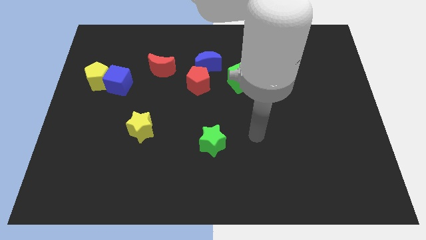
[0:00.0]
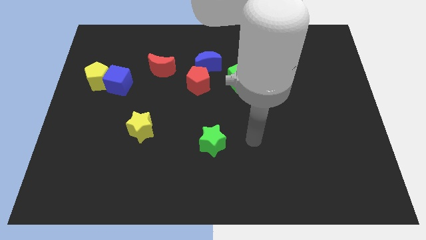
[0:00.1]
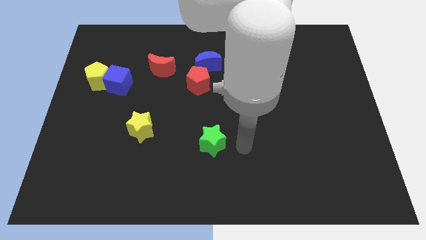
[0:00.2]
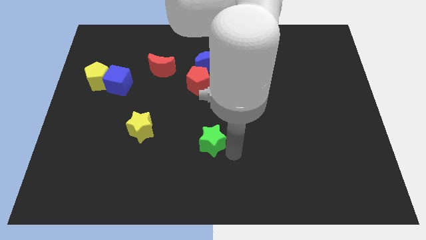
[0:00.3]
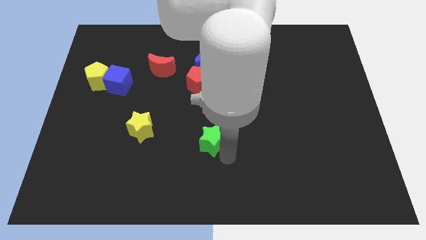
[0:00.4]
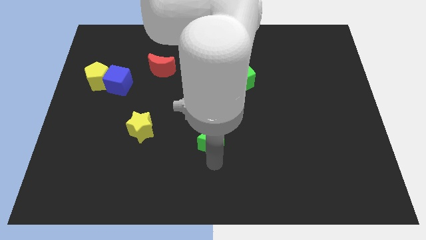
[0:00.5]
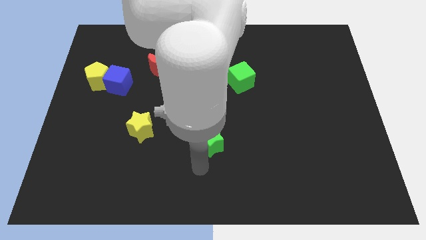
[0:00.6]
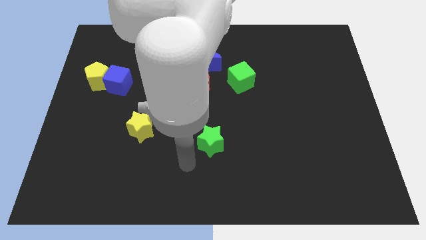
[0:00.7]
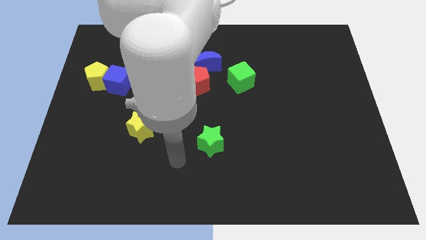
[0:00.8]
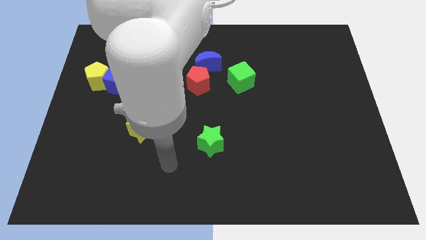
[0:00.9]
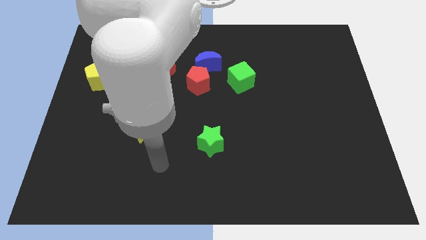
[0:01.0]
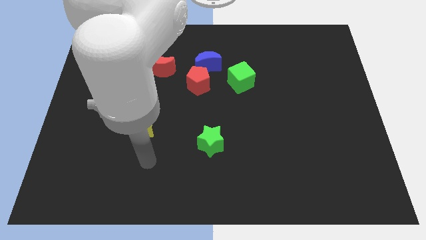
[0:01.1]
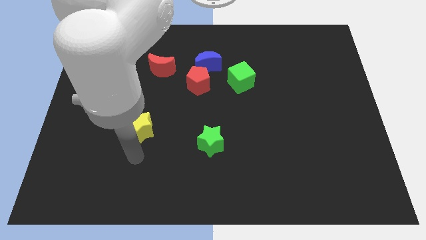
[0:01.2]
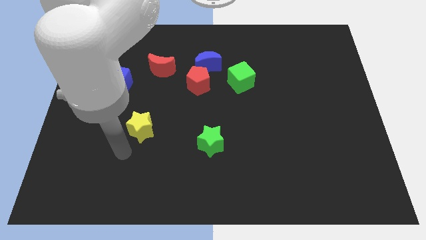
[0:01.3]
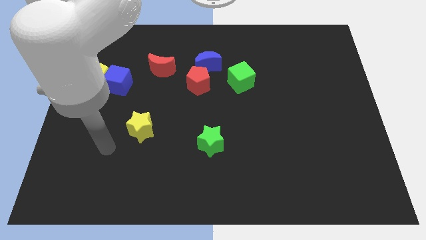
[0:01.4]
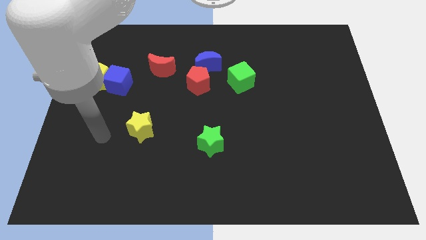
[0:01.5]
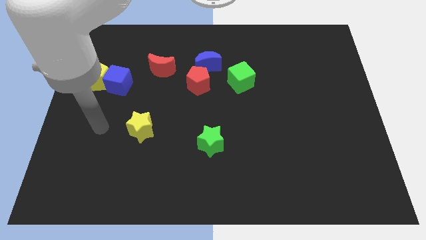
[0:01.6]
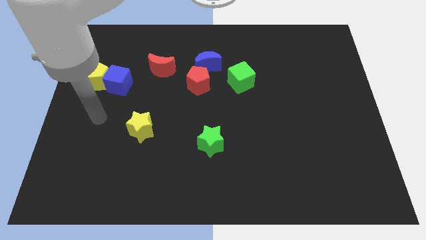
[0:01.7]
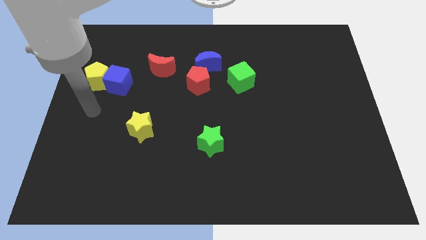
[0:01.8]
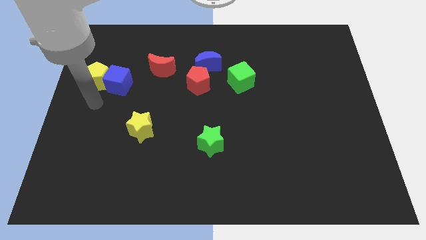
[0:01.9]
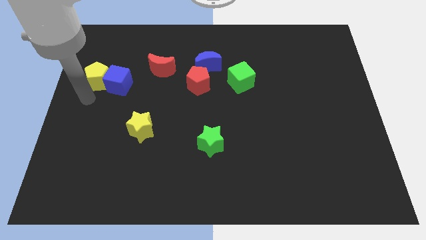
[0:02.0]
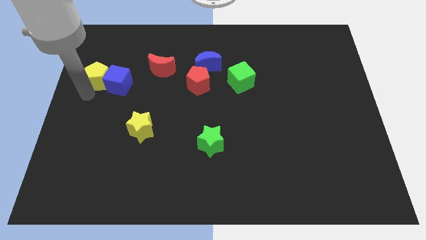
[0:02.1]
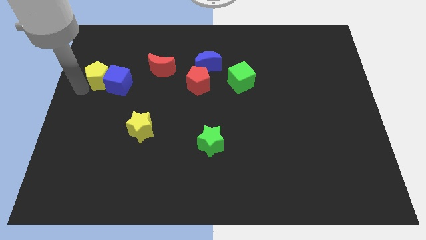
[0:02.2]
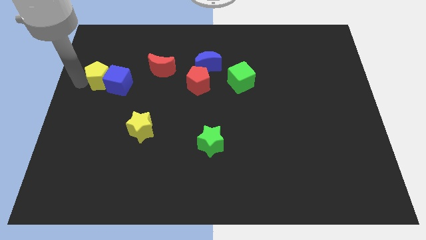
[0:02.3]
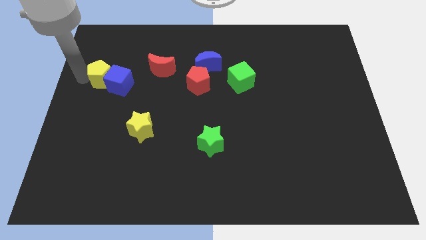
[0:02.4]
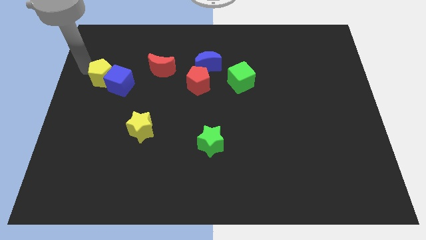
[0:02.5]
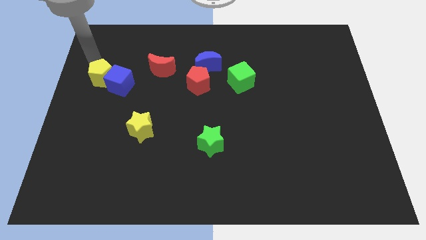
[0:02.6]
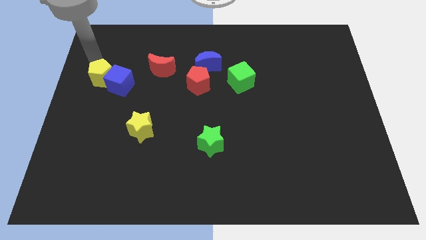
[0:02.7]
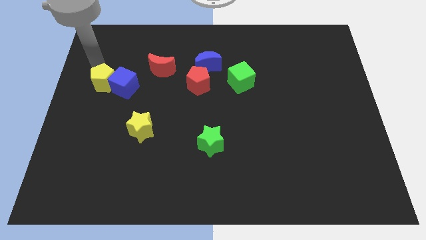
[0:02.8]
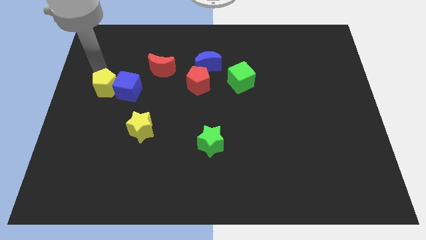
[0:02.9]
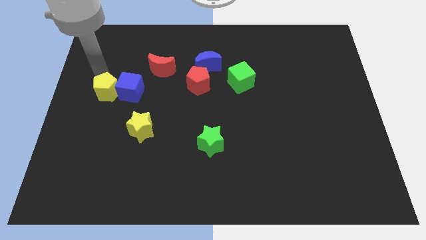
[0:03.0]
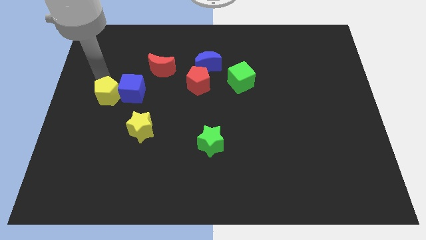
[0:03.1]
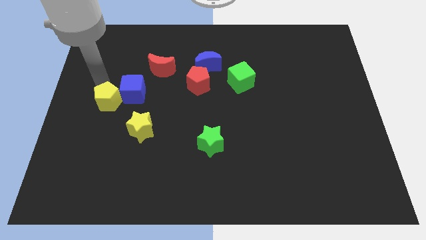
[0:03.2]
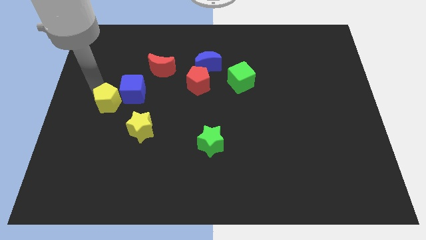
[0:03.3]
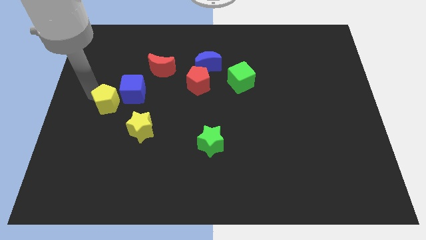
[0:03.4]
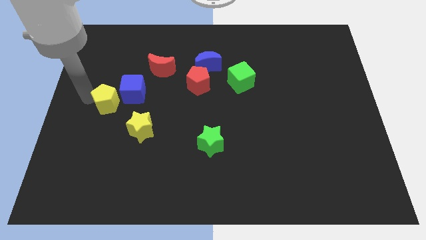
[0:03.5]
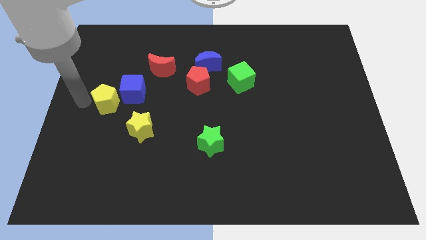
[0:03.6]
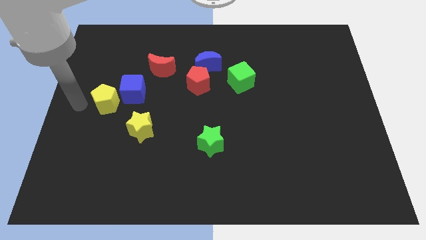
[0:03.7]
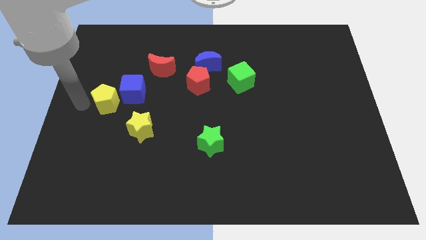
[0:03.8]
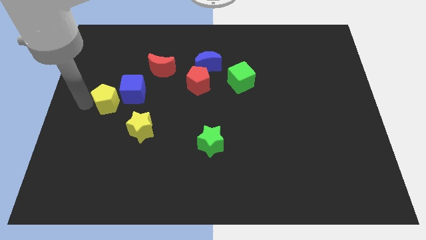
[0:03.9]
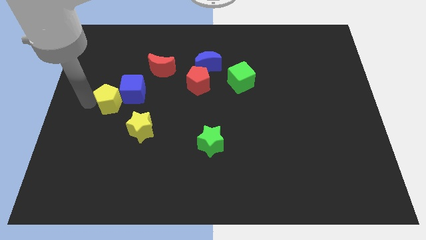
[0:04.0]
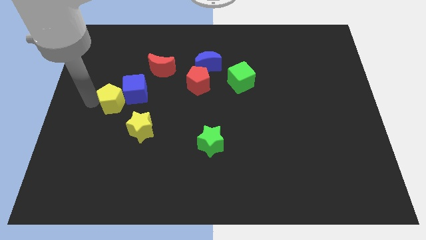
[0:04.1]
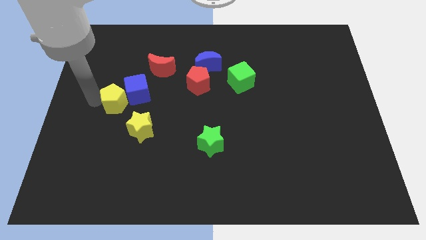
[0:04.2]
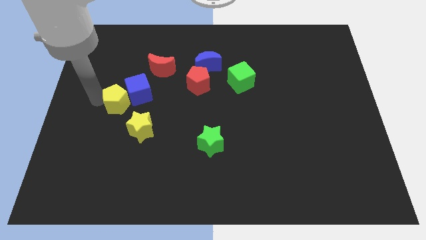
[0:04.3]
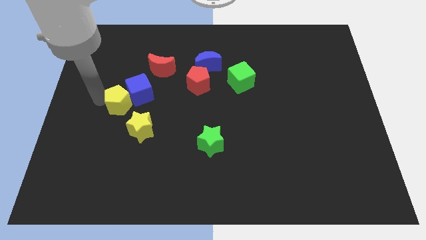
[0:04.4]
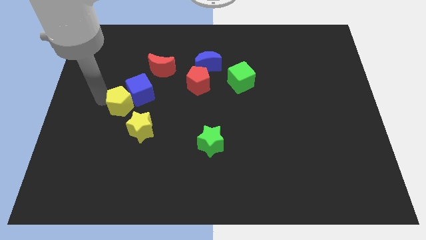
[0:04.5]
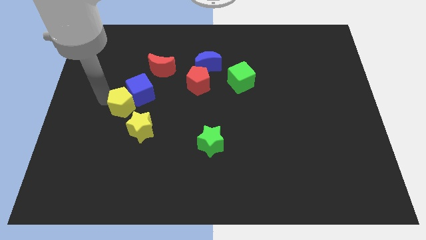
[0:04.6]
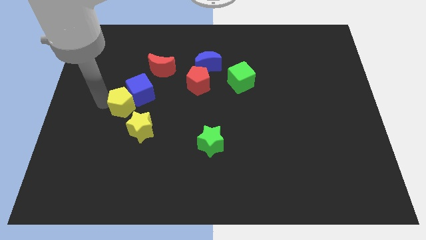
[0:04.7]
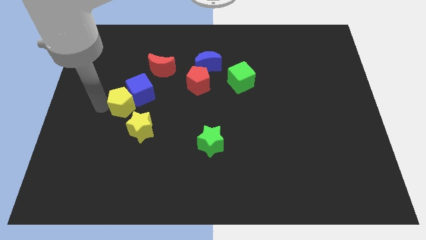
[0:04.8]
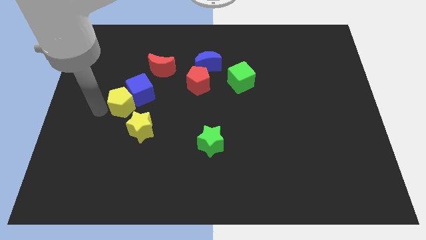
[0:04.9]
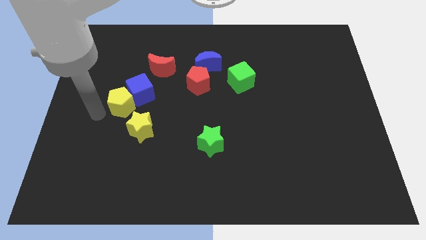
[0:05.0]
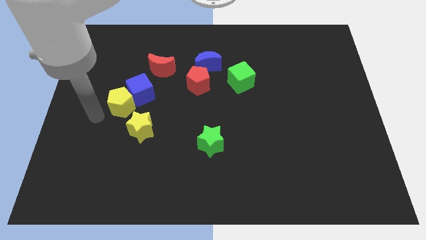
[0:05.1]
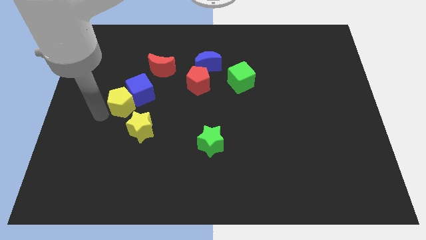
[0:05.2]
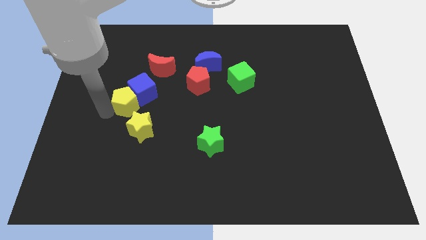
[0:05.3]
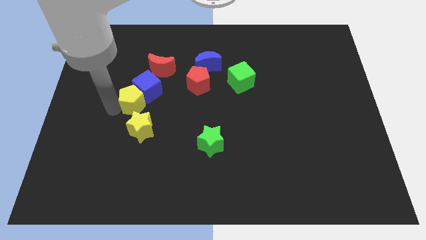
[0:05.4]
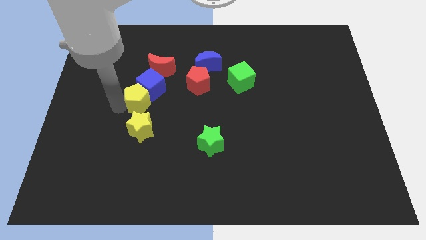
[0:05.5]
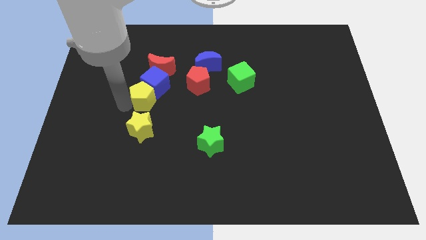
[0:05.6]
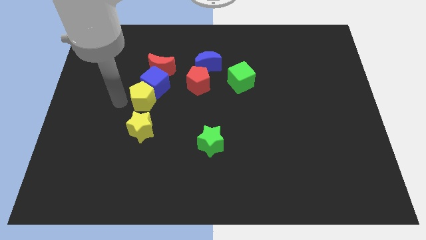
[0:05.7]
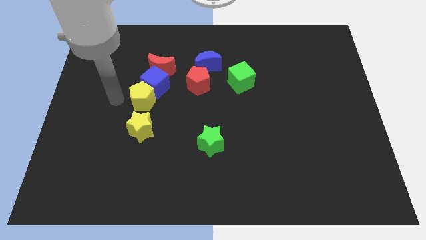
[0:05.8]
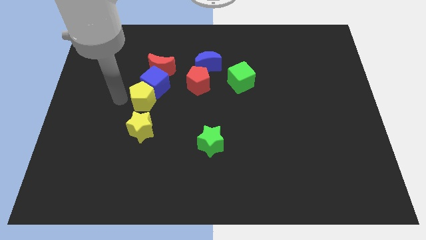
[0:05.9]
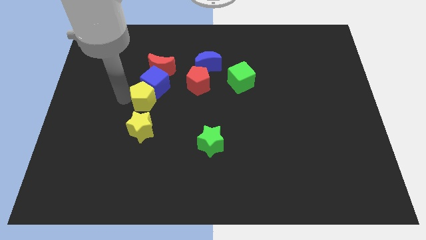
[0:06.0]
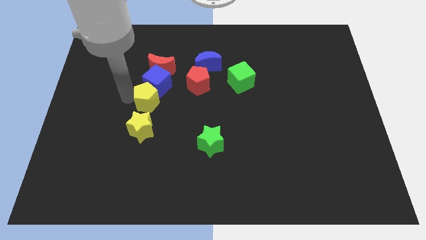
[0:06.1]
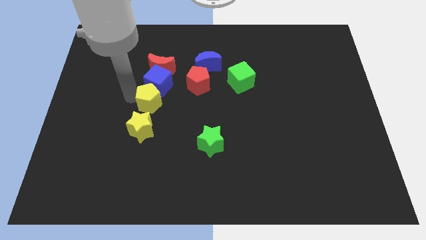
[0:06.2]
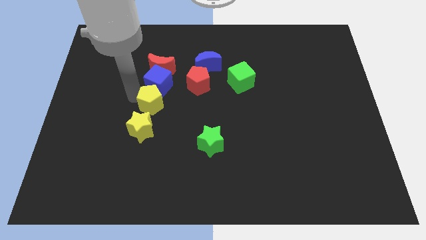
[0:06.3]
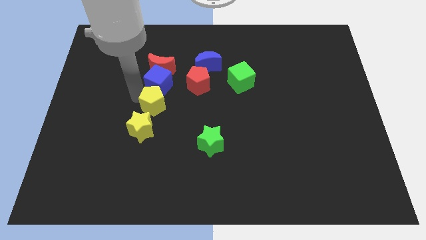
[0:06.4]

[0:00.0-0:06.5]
slide the yellow pentagon diagonally down and to the left of the red pentagon

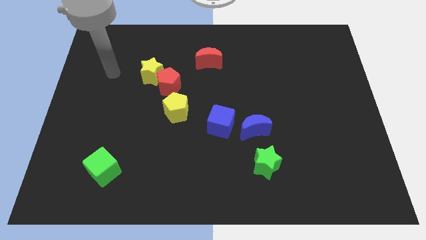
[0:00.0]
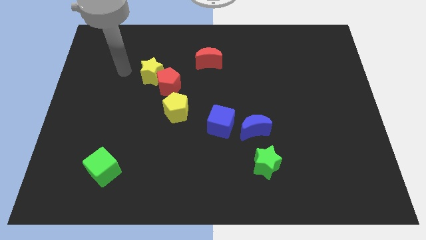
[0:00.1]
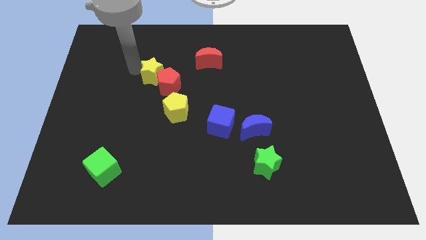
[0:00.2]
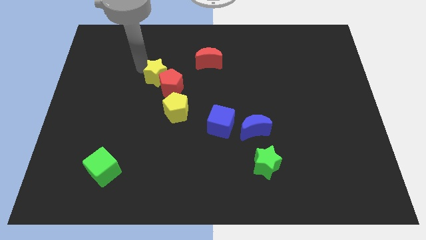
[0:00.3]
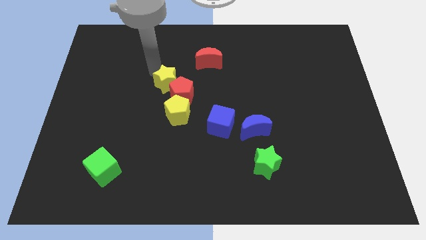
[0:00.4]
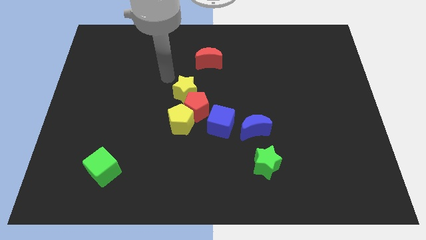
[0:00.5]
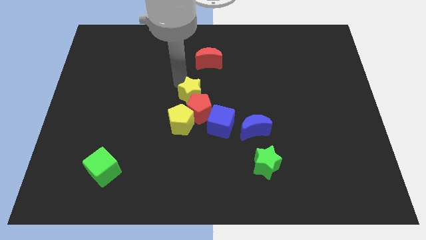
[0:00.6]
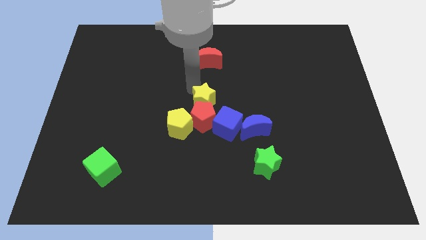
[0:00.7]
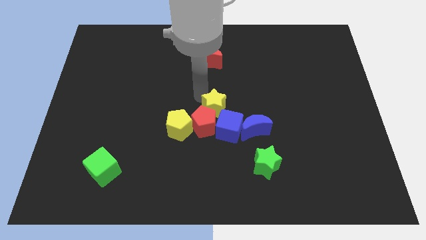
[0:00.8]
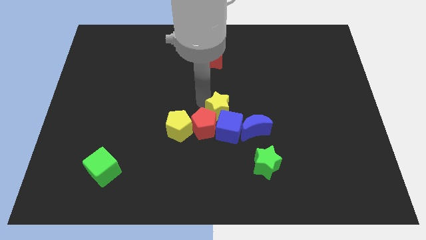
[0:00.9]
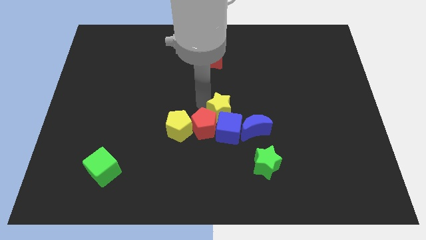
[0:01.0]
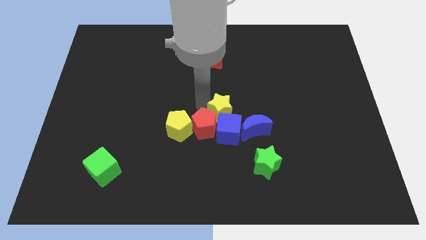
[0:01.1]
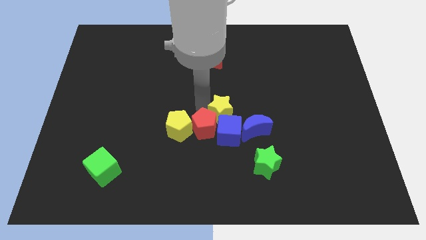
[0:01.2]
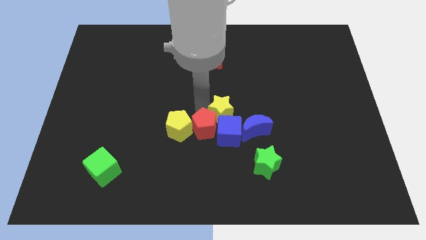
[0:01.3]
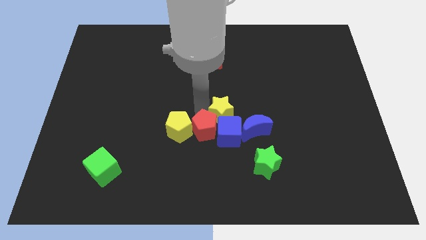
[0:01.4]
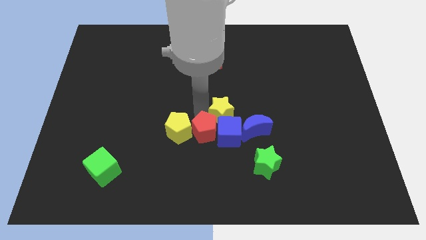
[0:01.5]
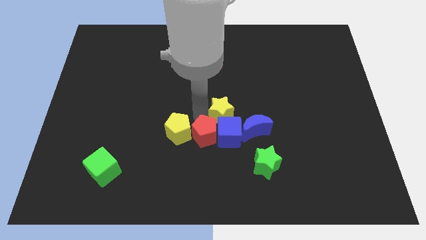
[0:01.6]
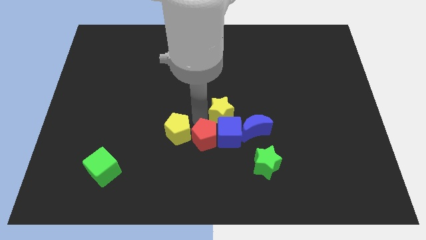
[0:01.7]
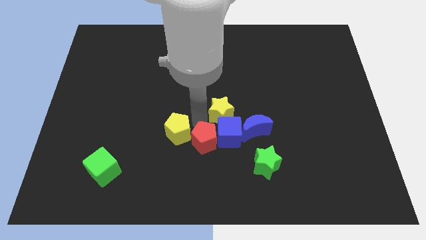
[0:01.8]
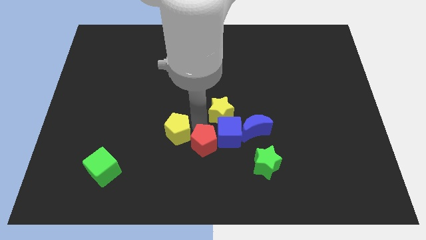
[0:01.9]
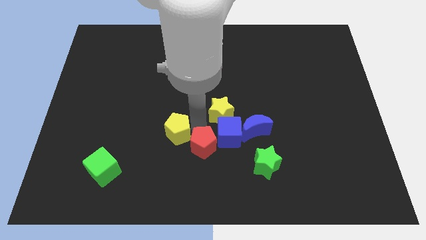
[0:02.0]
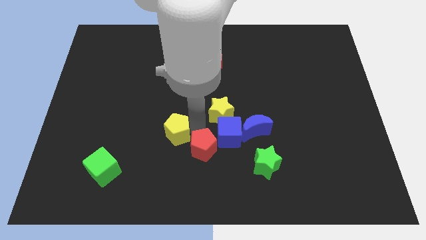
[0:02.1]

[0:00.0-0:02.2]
move the red pentagon to the left side of the green star
